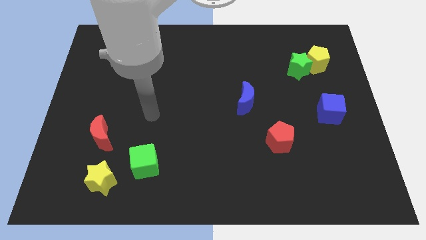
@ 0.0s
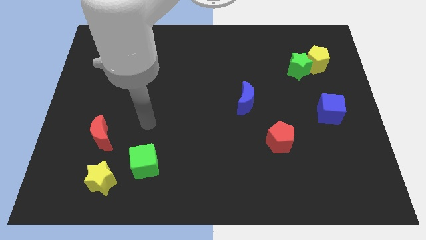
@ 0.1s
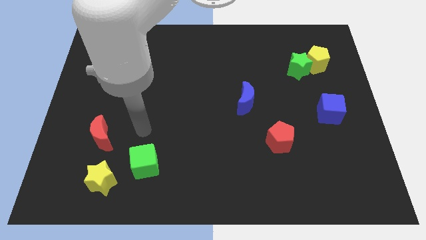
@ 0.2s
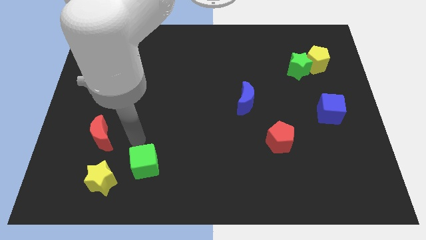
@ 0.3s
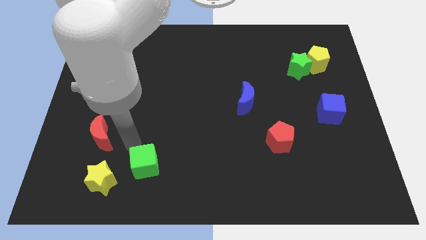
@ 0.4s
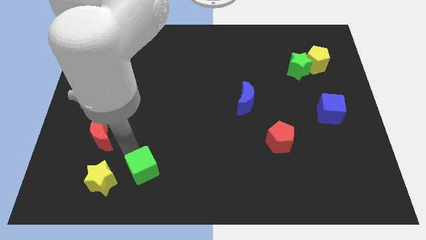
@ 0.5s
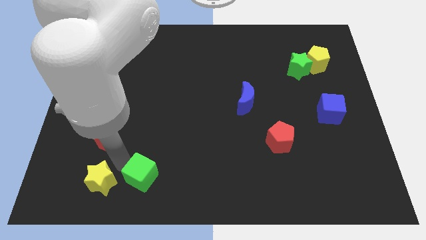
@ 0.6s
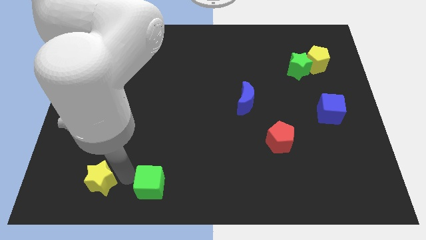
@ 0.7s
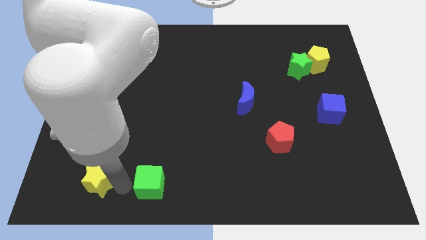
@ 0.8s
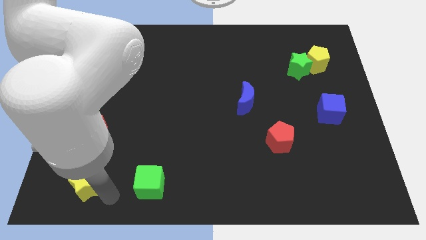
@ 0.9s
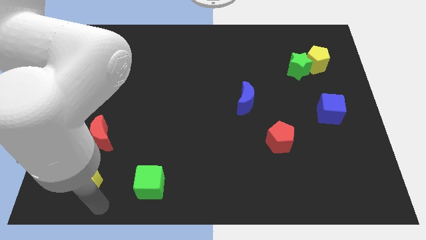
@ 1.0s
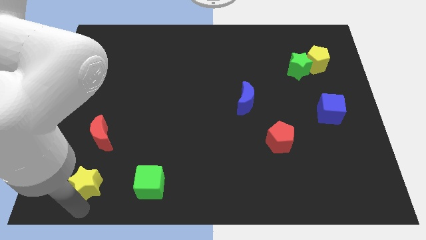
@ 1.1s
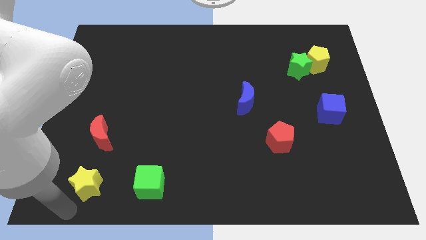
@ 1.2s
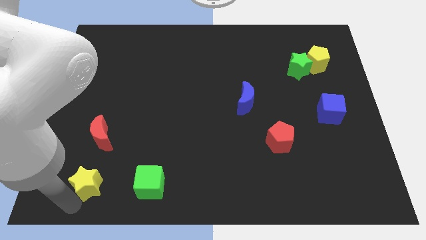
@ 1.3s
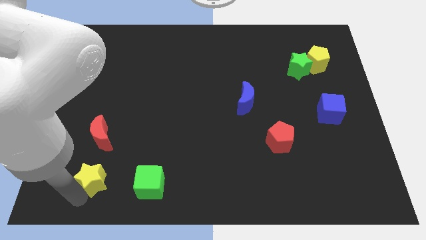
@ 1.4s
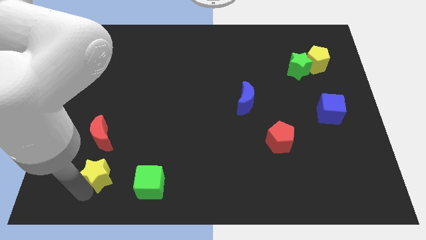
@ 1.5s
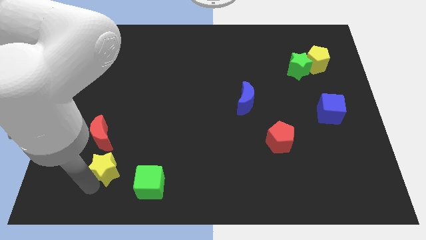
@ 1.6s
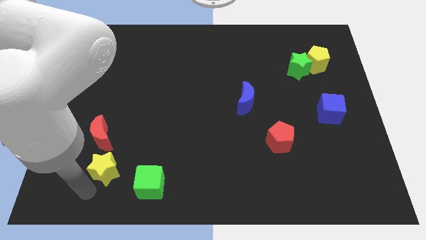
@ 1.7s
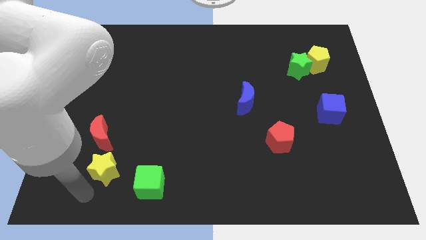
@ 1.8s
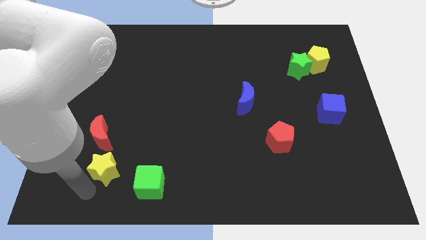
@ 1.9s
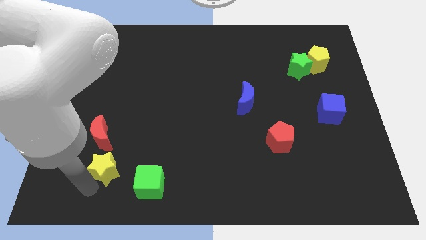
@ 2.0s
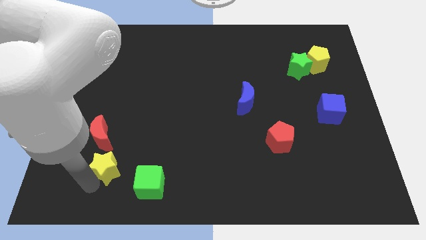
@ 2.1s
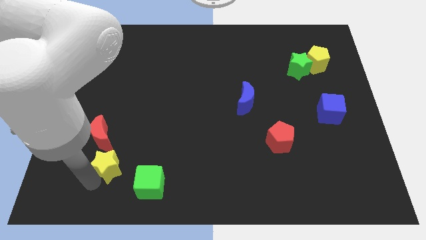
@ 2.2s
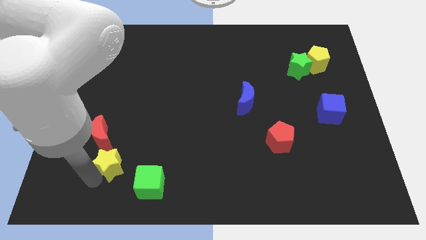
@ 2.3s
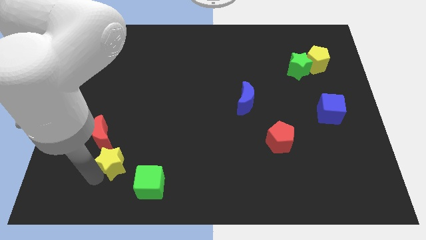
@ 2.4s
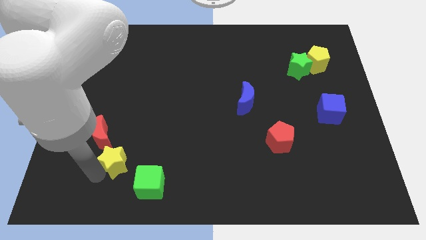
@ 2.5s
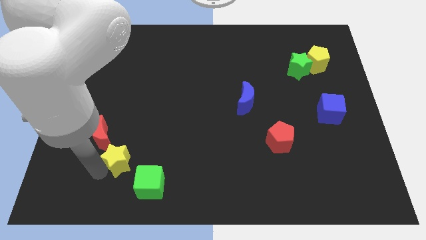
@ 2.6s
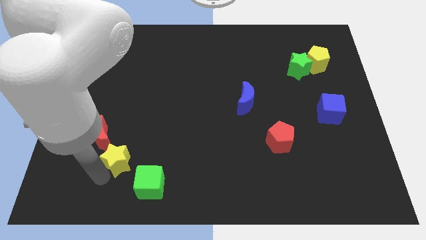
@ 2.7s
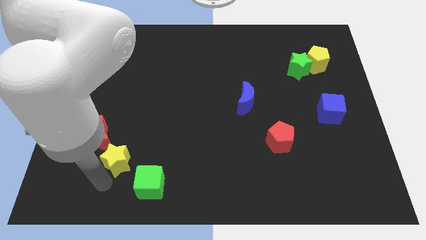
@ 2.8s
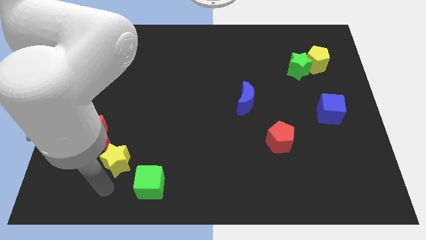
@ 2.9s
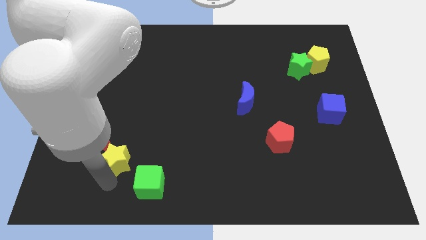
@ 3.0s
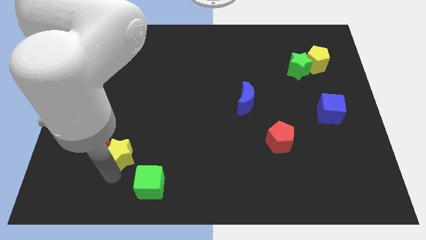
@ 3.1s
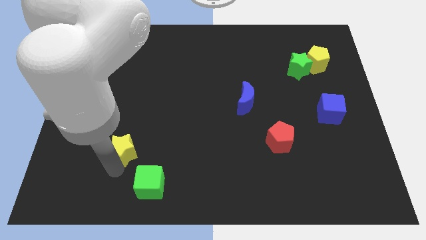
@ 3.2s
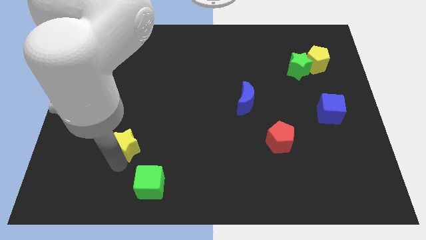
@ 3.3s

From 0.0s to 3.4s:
move the yellow star up a bit

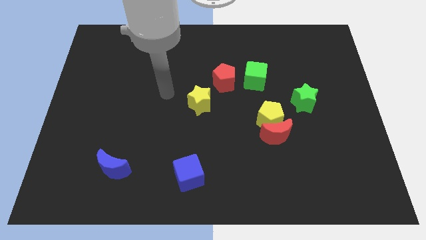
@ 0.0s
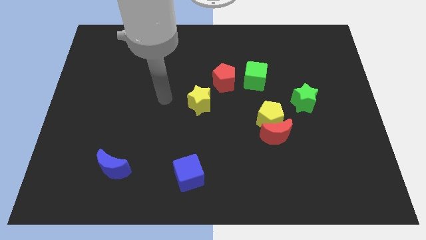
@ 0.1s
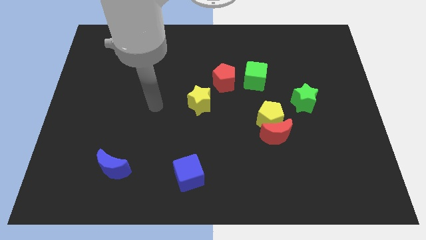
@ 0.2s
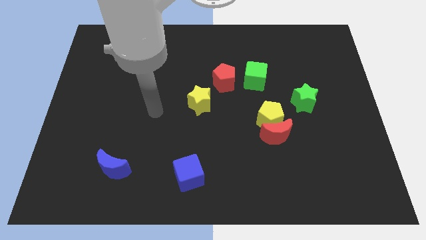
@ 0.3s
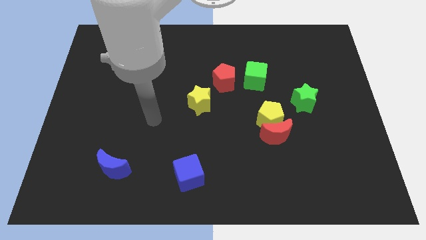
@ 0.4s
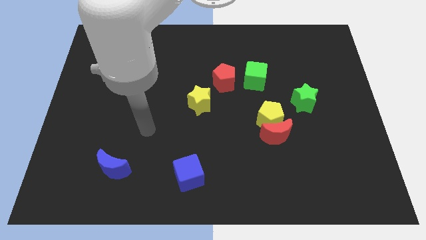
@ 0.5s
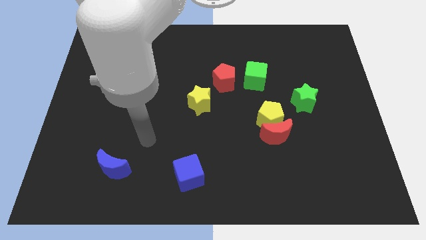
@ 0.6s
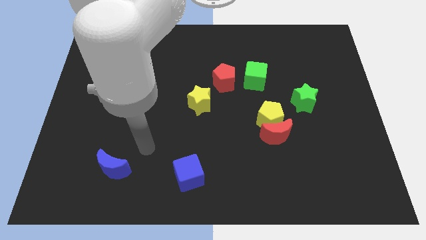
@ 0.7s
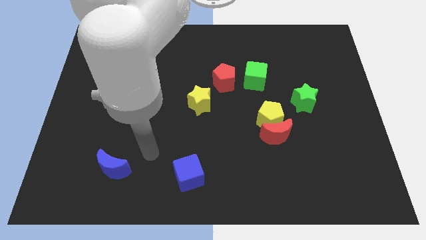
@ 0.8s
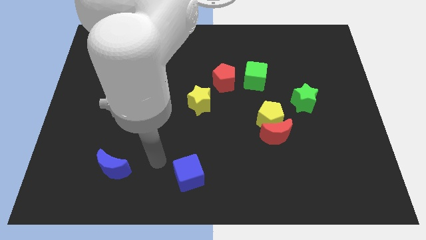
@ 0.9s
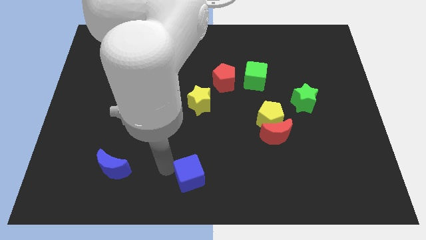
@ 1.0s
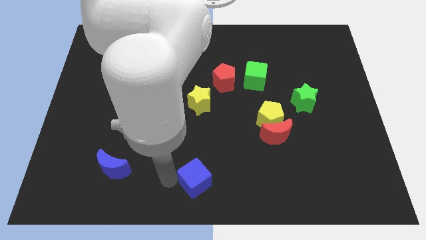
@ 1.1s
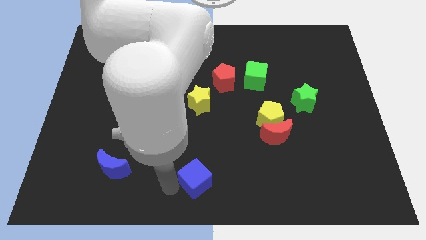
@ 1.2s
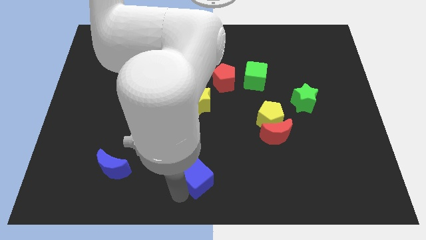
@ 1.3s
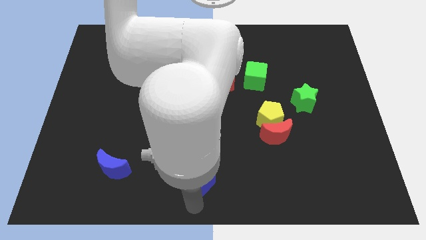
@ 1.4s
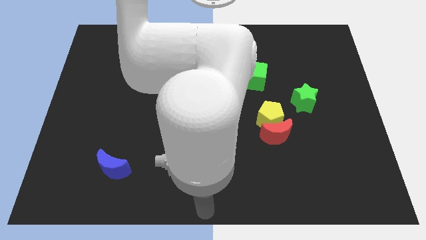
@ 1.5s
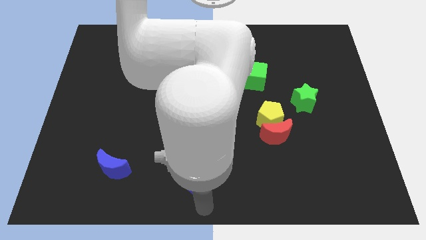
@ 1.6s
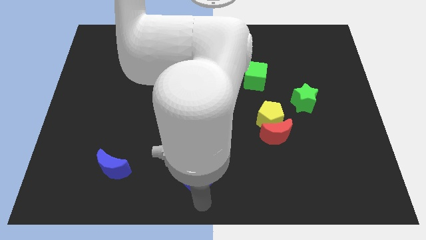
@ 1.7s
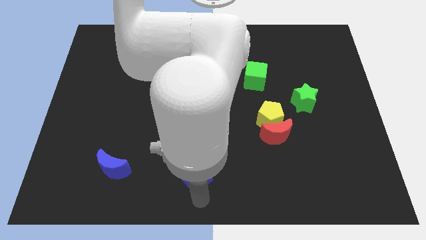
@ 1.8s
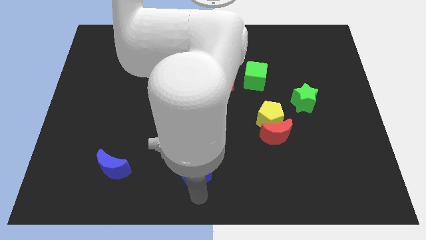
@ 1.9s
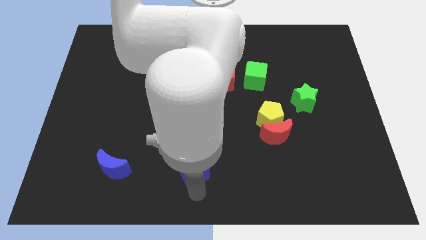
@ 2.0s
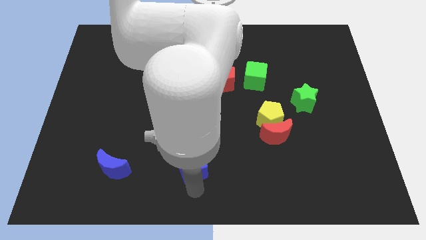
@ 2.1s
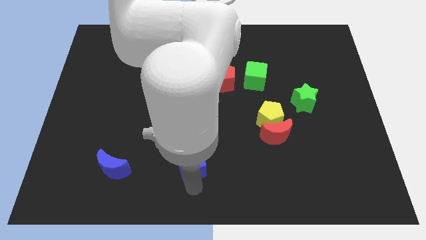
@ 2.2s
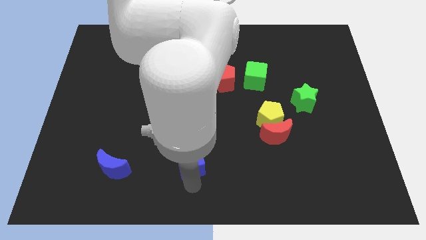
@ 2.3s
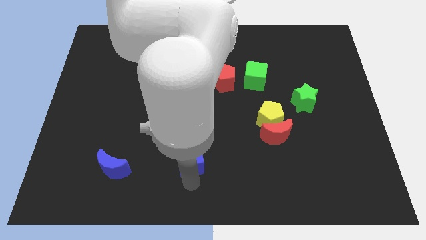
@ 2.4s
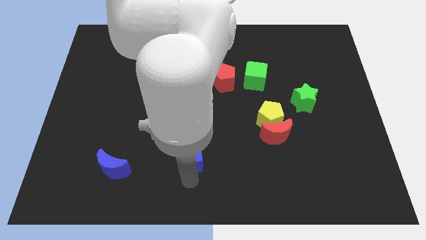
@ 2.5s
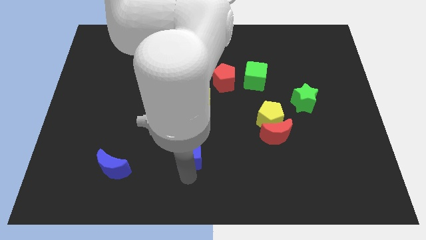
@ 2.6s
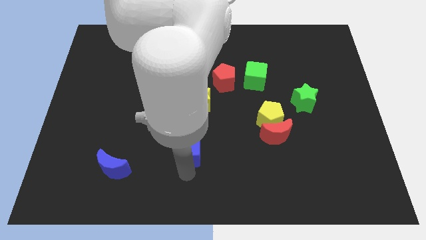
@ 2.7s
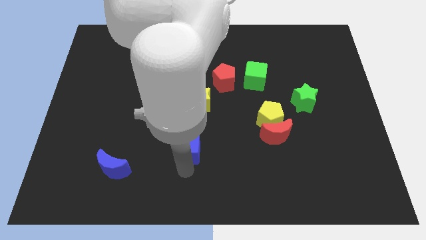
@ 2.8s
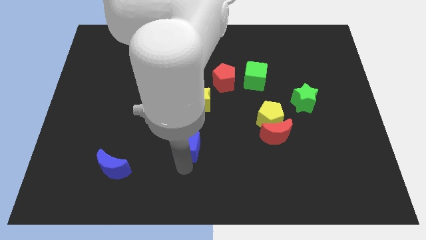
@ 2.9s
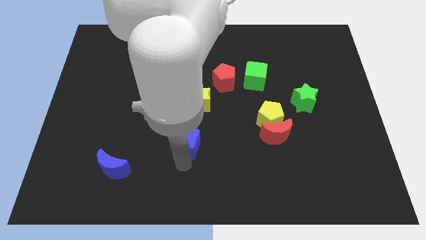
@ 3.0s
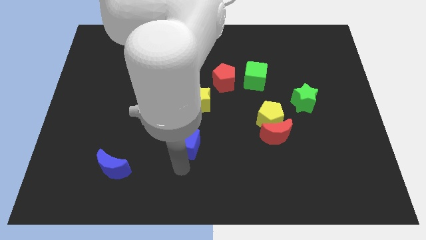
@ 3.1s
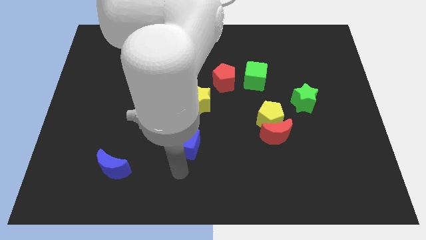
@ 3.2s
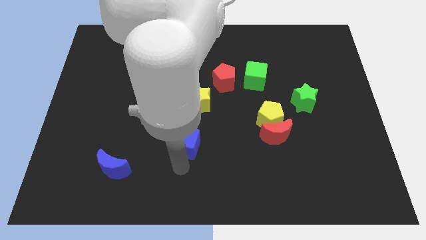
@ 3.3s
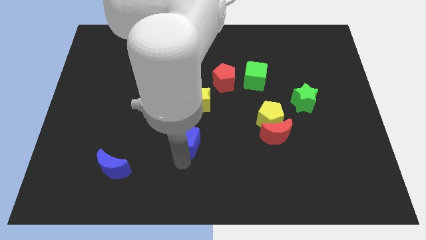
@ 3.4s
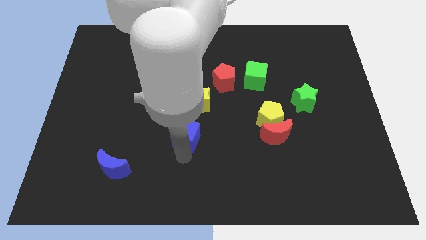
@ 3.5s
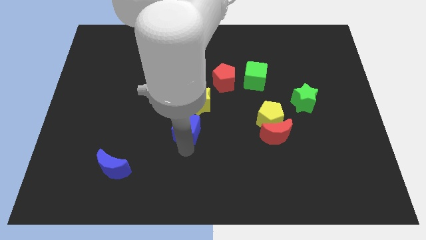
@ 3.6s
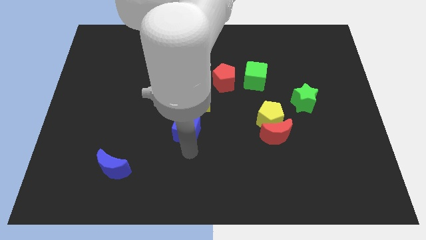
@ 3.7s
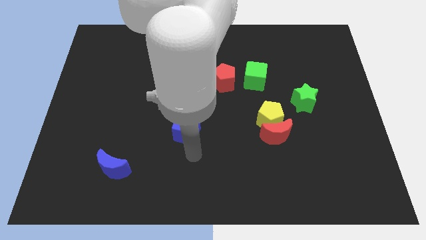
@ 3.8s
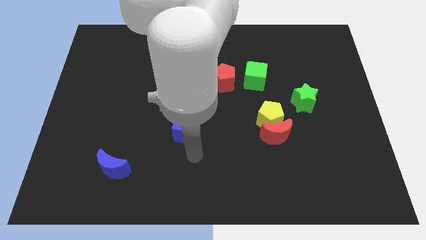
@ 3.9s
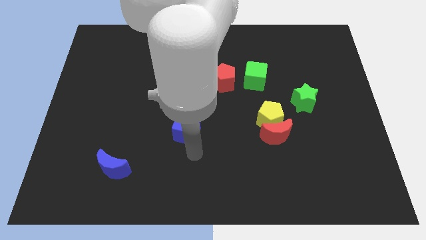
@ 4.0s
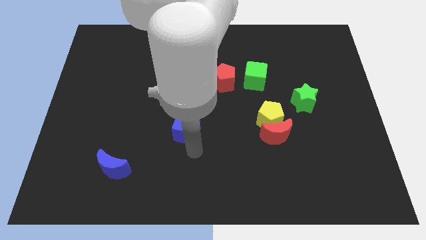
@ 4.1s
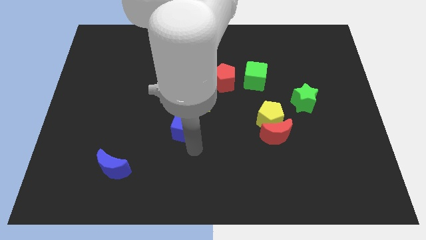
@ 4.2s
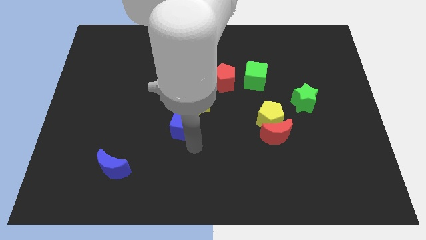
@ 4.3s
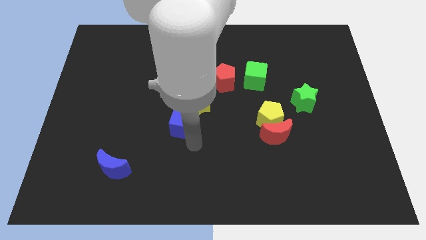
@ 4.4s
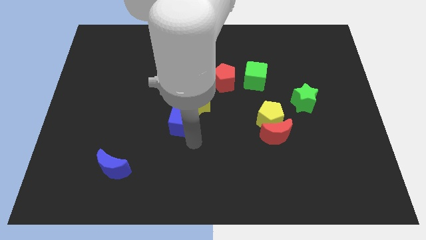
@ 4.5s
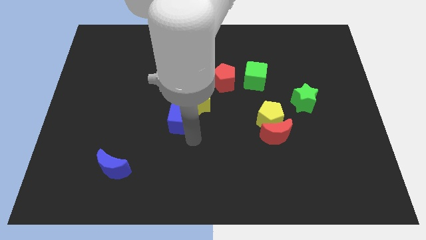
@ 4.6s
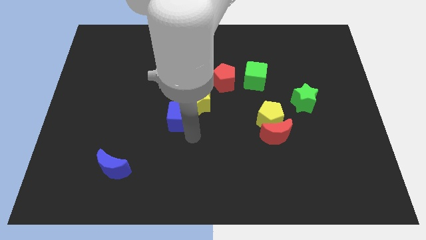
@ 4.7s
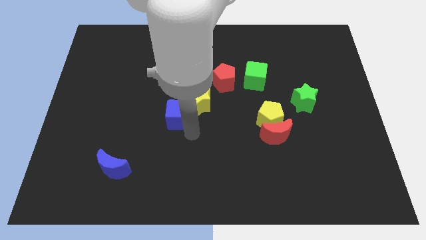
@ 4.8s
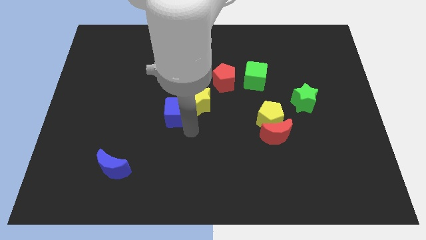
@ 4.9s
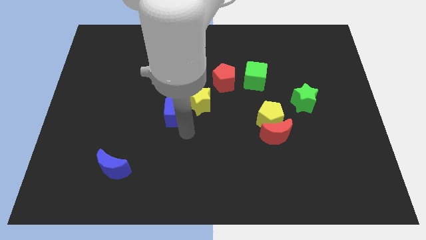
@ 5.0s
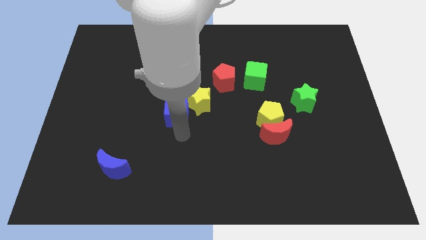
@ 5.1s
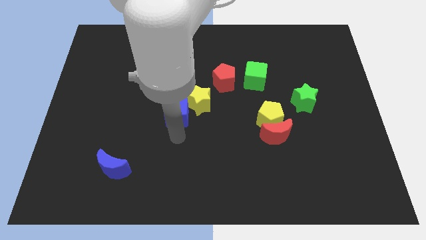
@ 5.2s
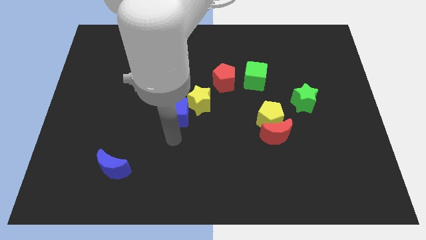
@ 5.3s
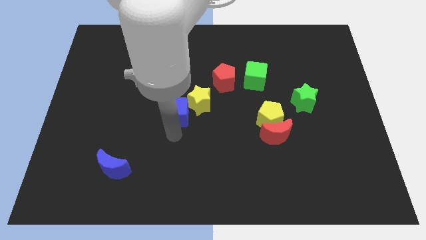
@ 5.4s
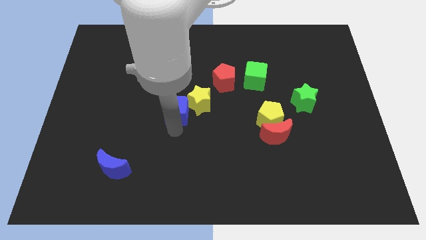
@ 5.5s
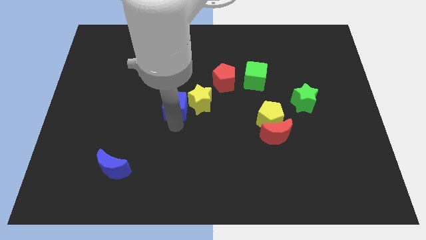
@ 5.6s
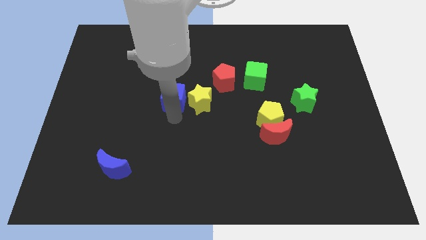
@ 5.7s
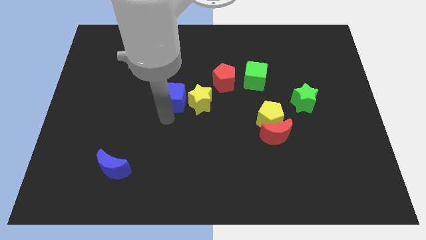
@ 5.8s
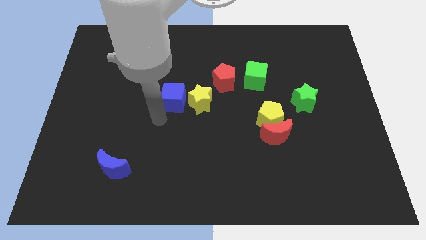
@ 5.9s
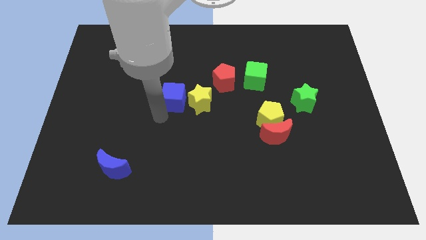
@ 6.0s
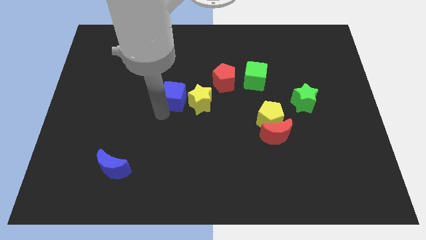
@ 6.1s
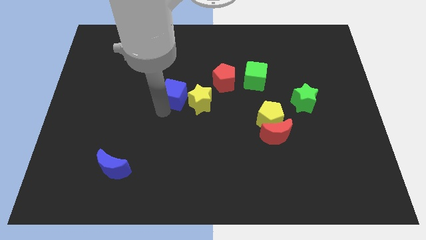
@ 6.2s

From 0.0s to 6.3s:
push the blue cube up
